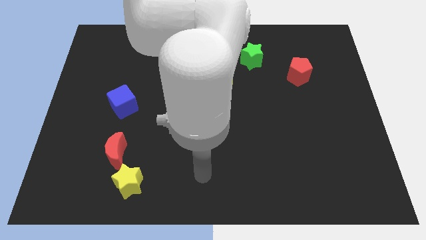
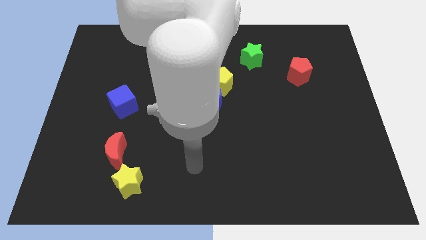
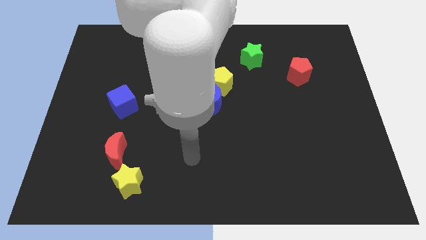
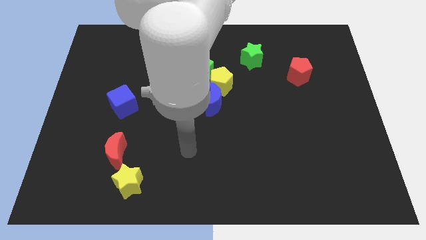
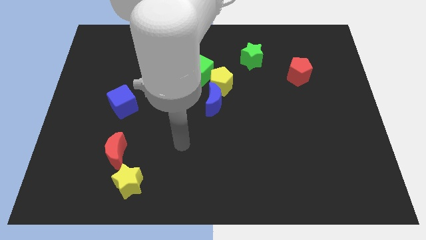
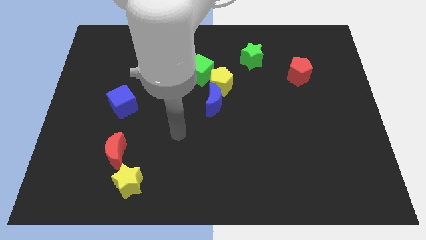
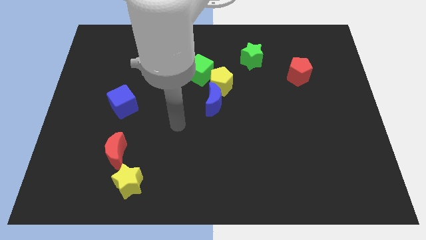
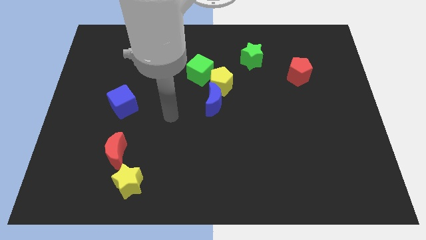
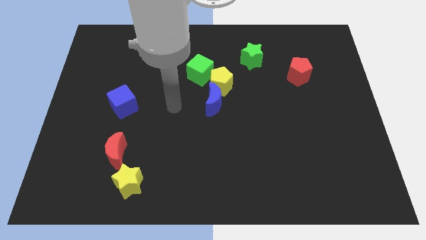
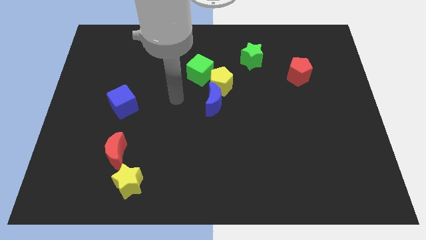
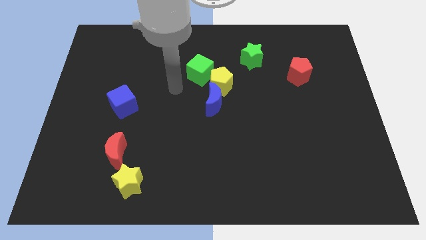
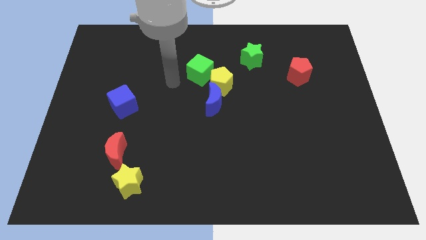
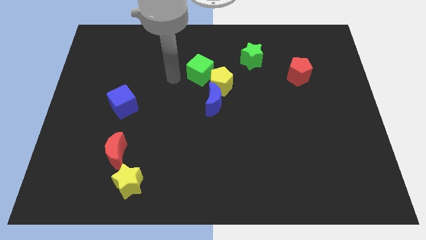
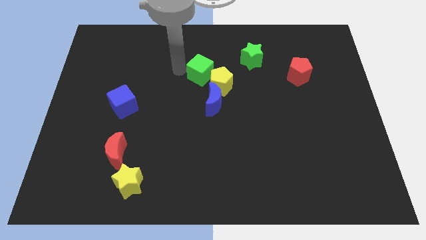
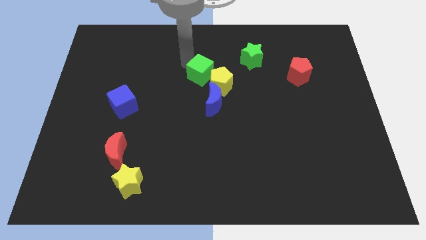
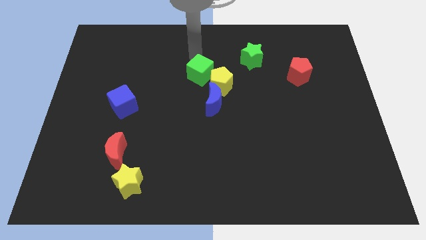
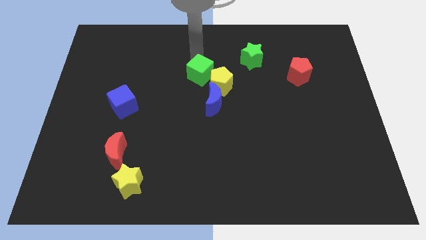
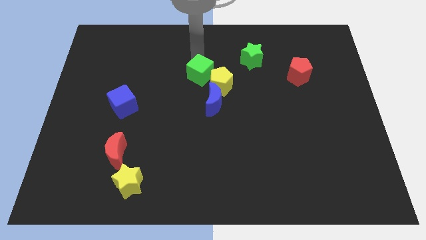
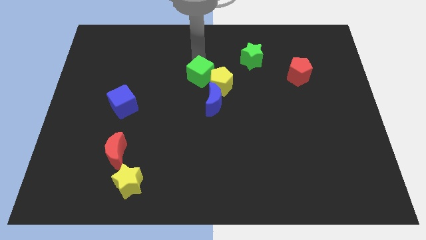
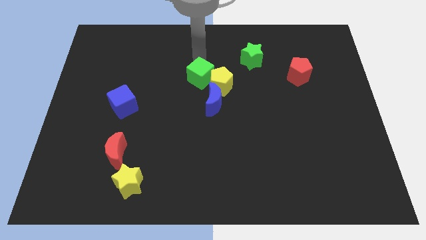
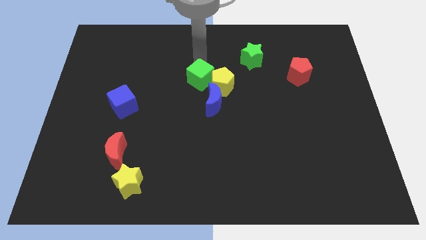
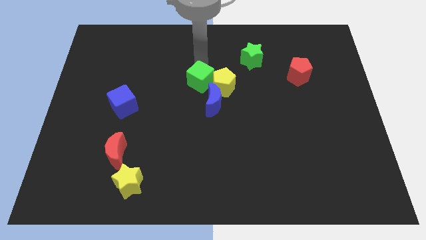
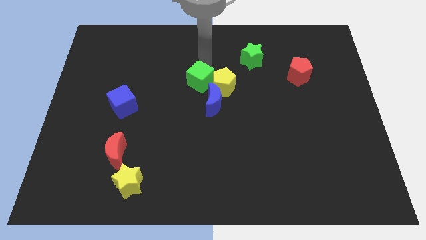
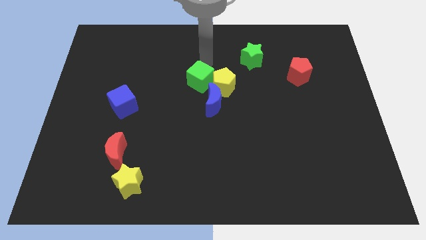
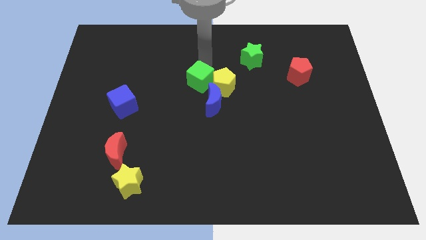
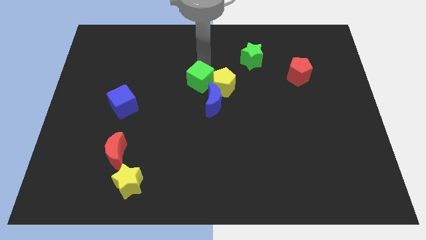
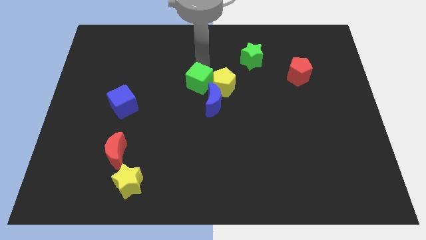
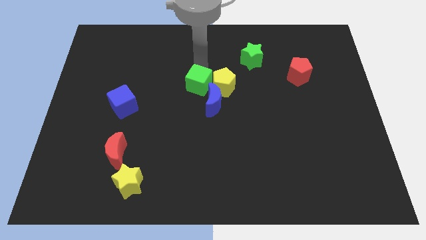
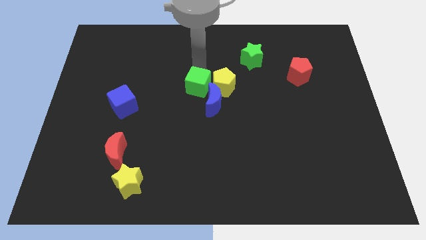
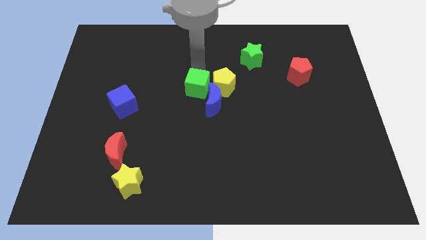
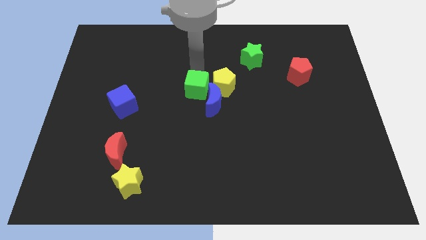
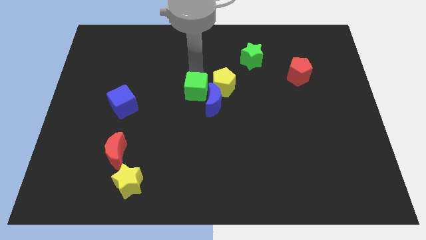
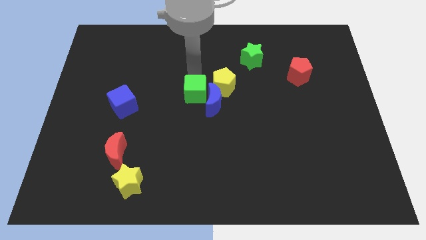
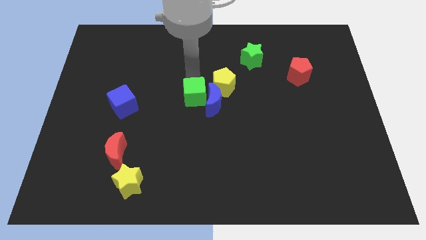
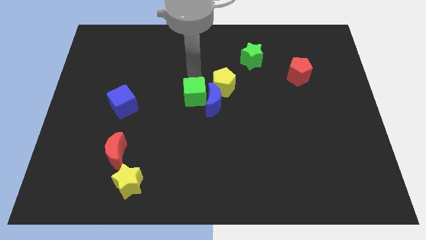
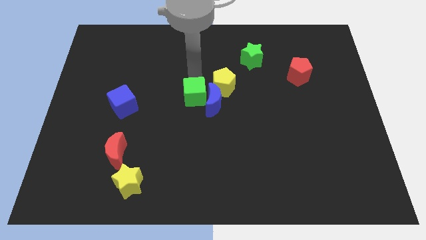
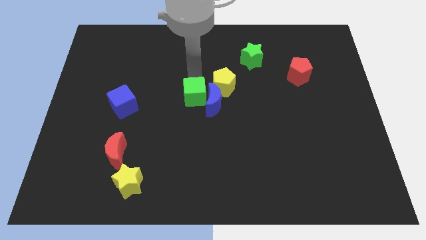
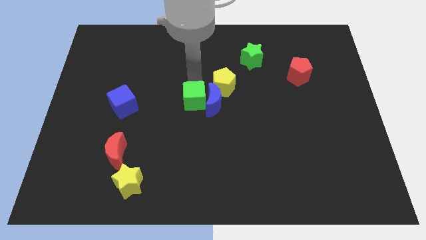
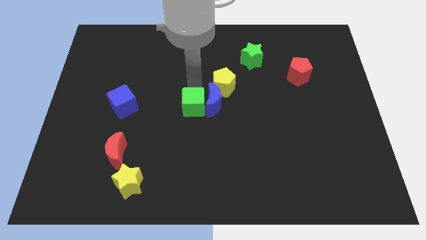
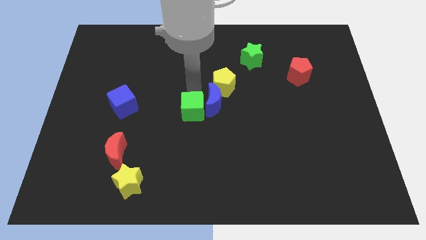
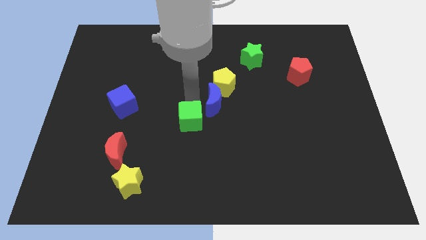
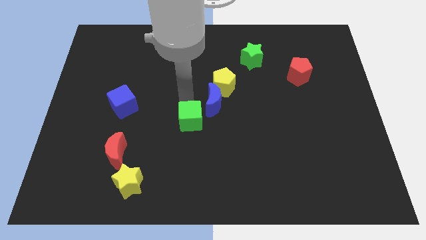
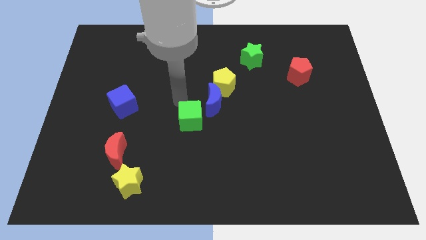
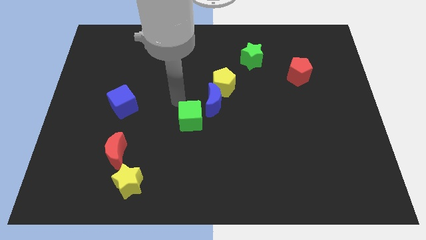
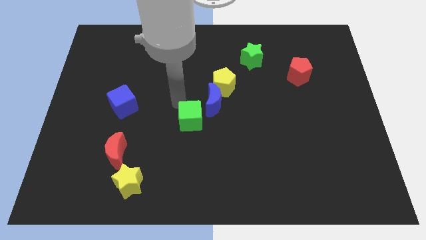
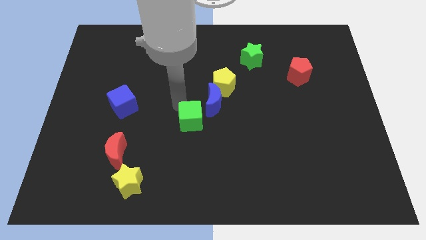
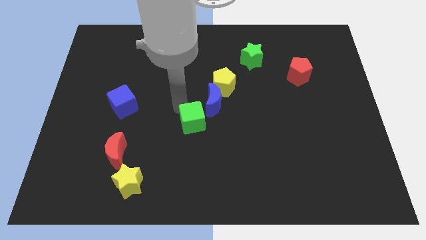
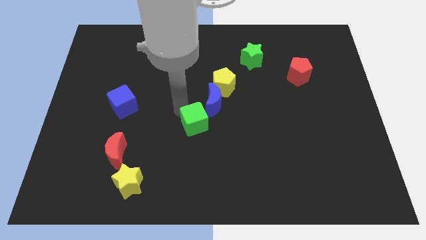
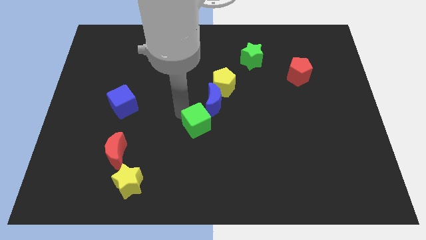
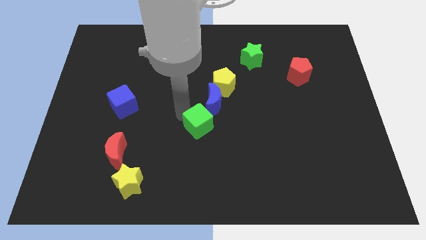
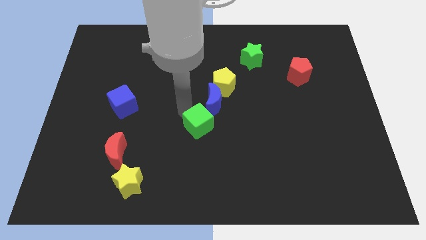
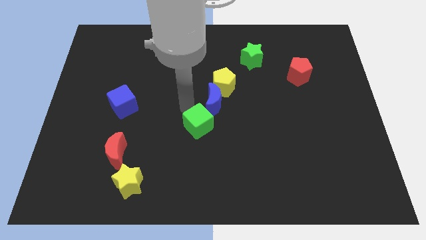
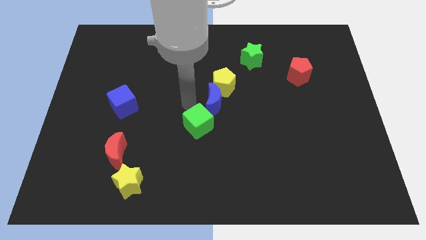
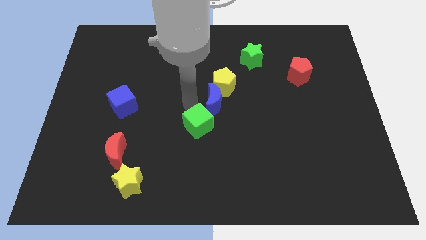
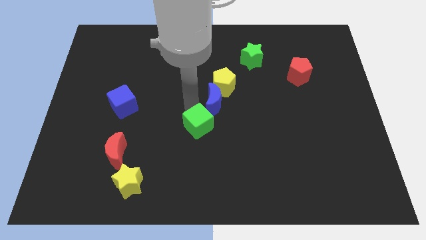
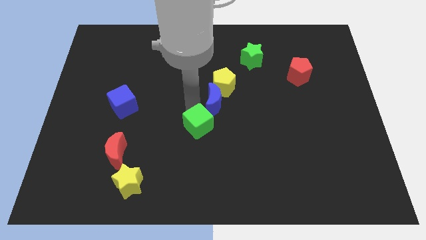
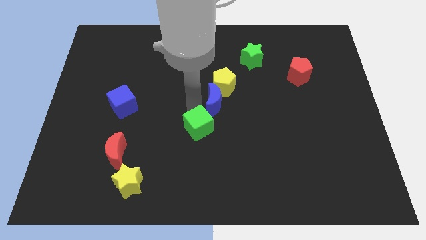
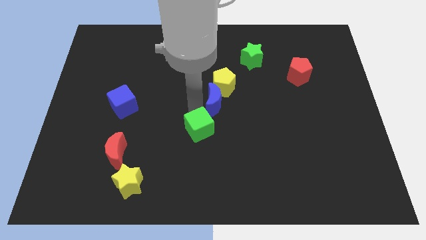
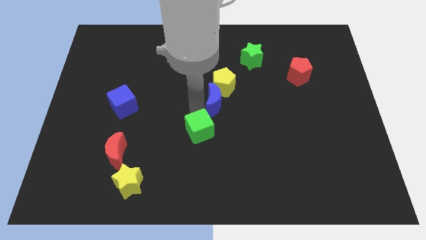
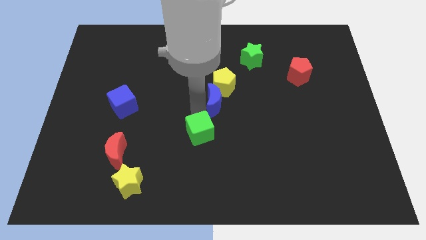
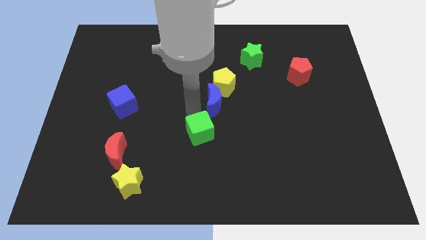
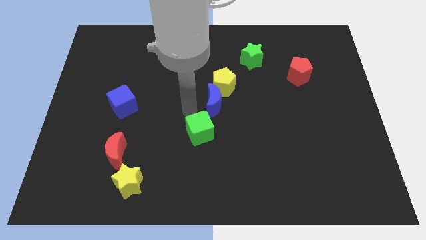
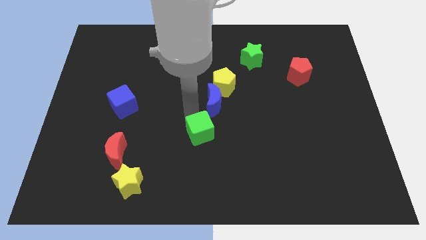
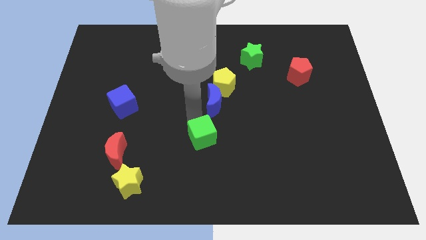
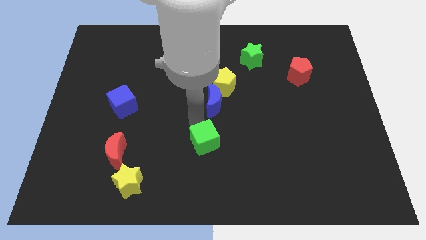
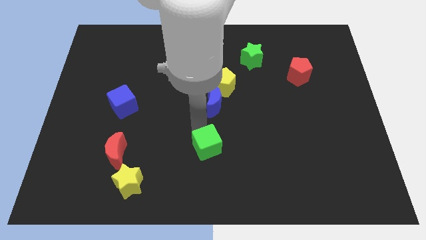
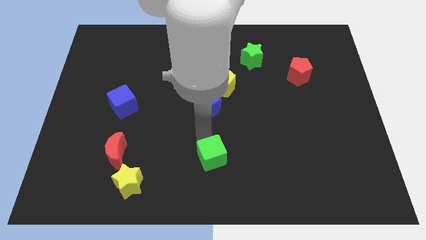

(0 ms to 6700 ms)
push the green cube to the bottom side

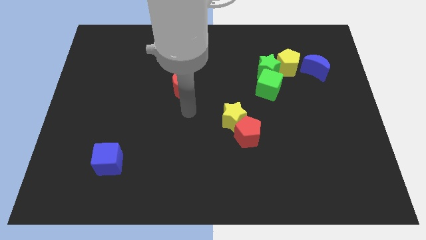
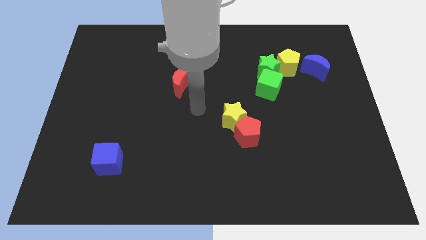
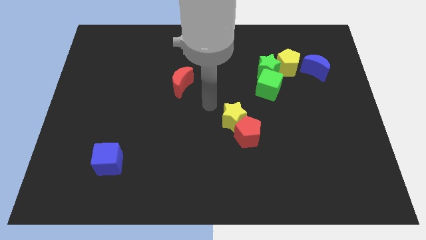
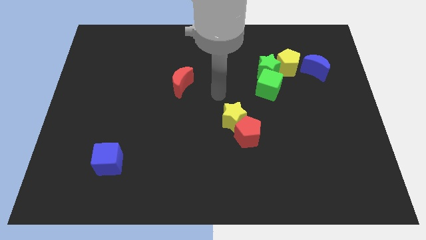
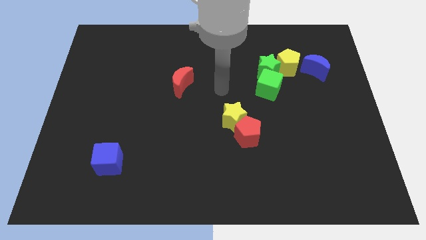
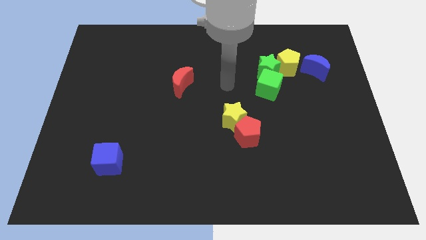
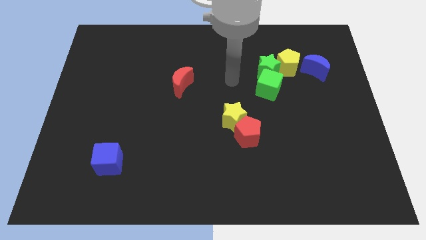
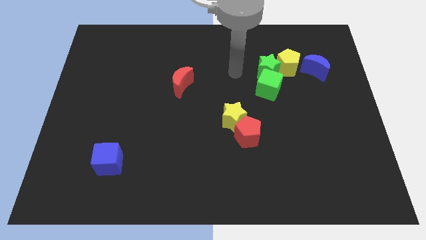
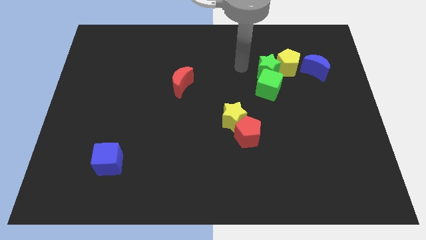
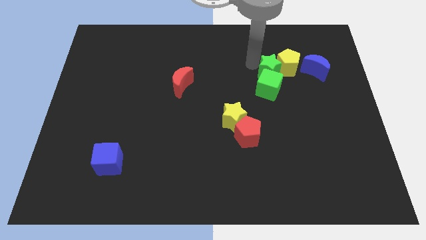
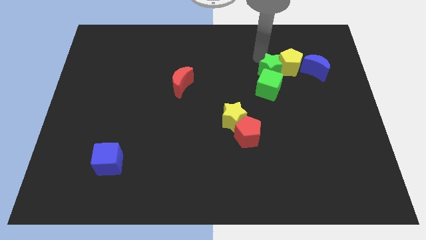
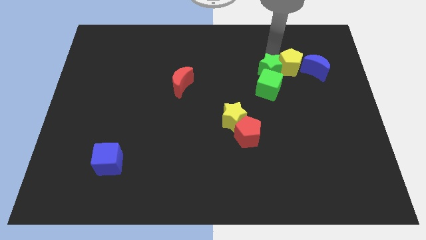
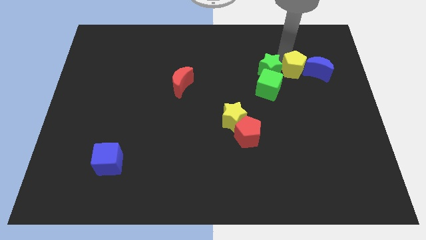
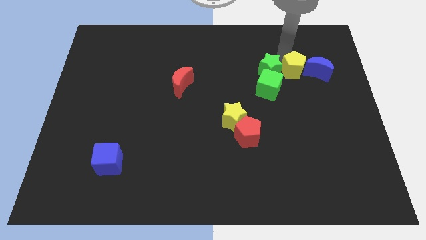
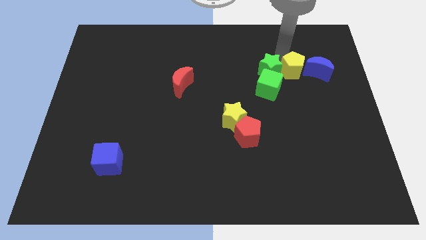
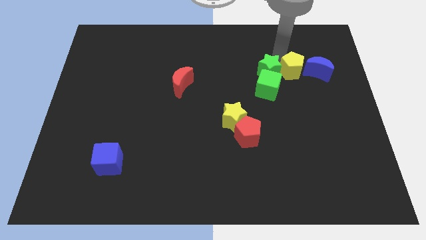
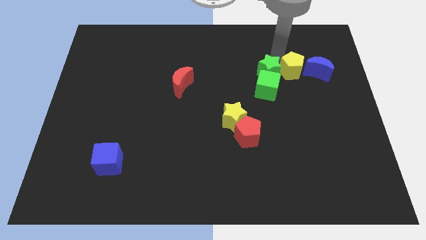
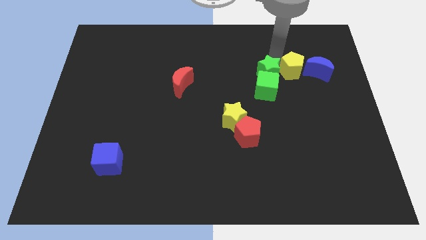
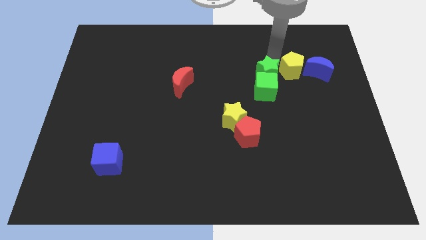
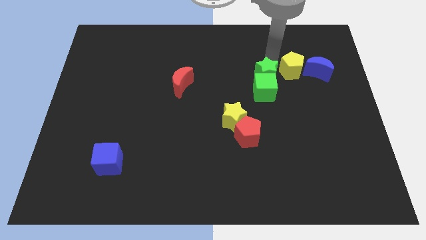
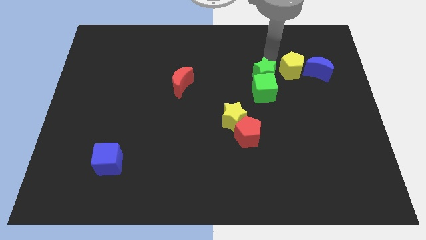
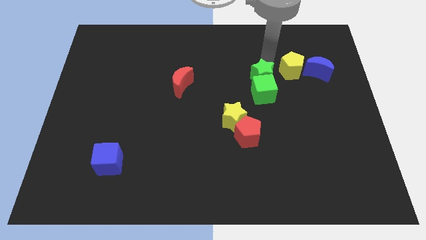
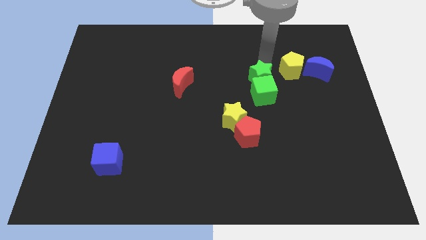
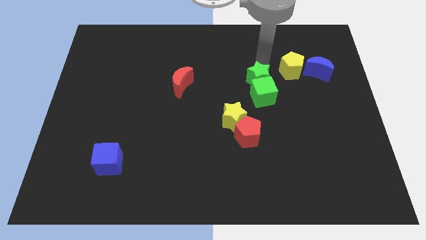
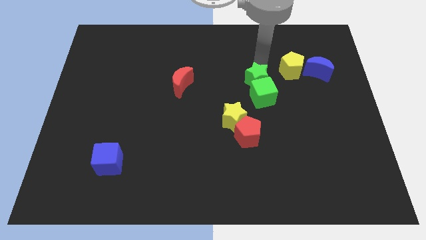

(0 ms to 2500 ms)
move the green star to the center of the board
